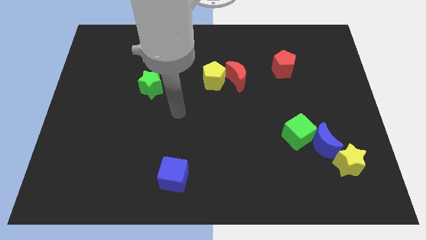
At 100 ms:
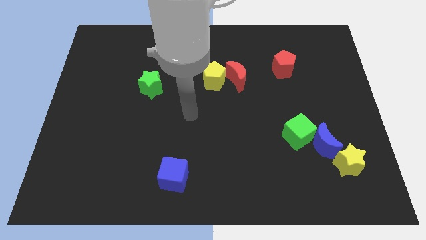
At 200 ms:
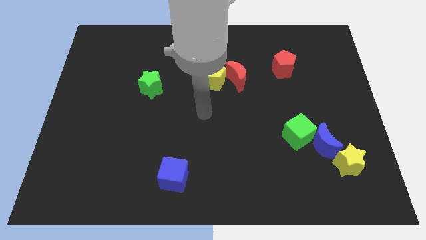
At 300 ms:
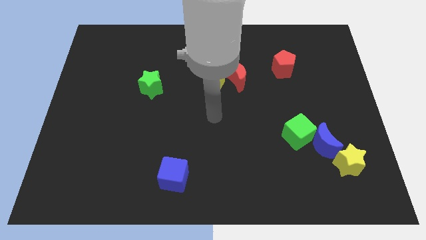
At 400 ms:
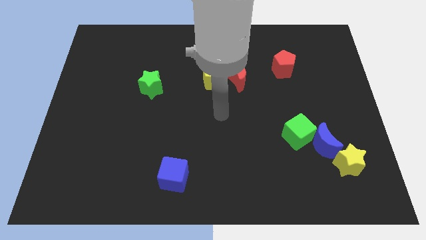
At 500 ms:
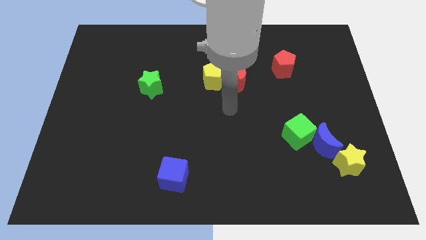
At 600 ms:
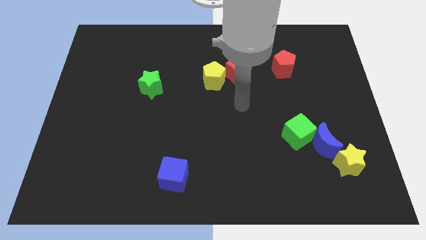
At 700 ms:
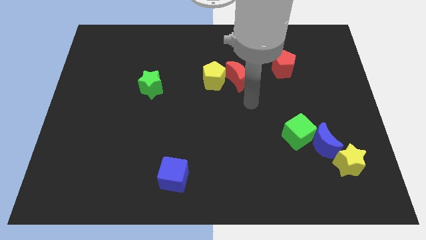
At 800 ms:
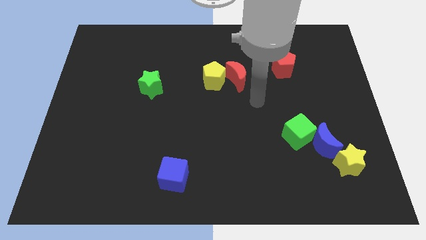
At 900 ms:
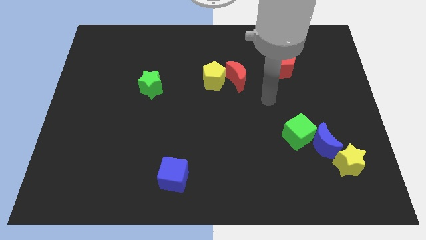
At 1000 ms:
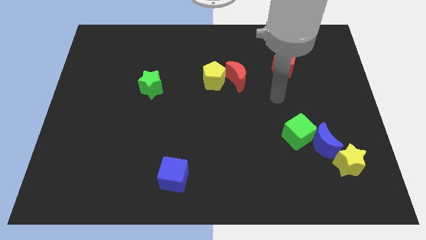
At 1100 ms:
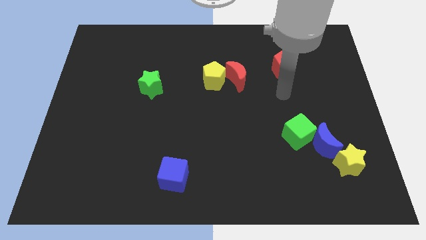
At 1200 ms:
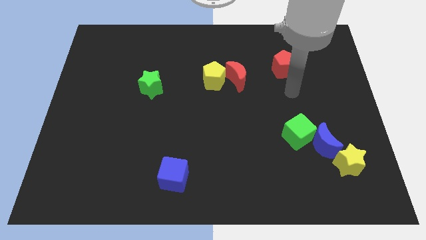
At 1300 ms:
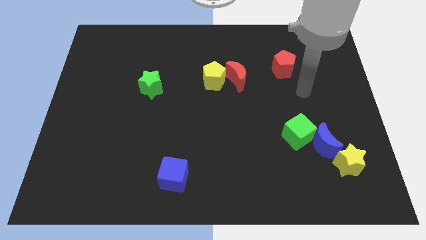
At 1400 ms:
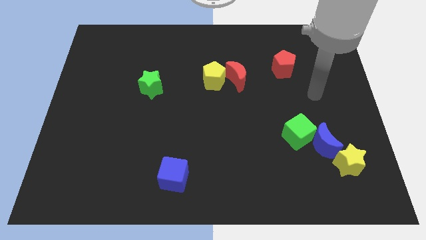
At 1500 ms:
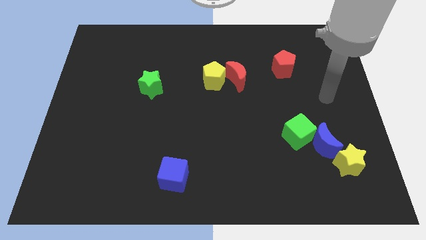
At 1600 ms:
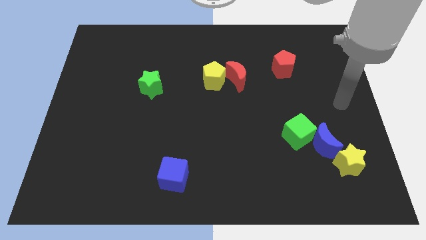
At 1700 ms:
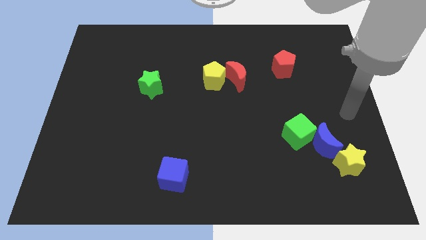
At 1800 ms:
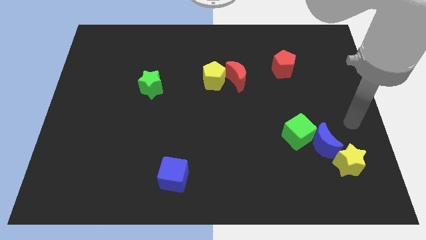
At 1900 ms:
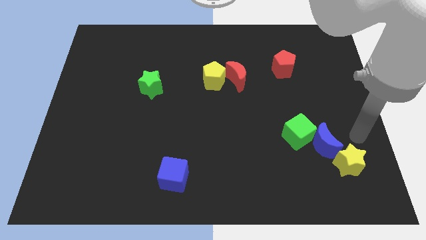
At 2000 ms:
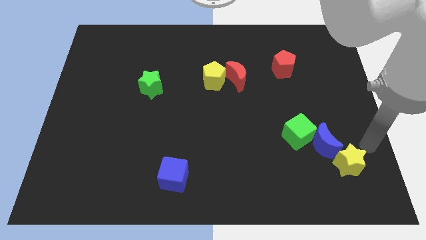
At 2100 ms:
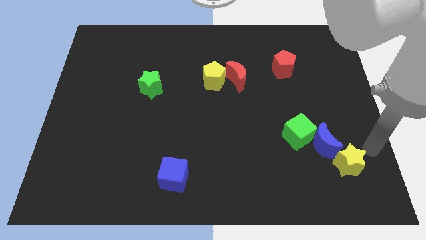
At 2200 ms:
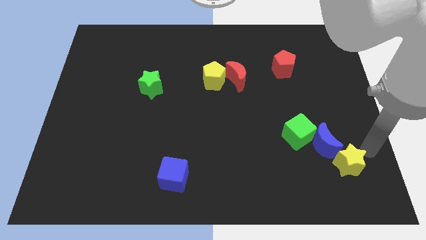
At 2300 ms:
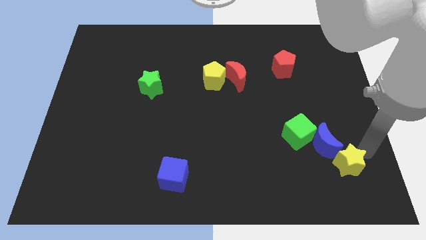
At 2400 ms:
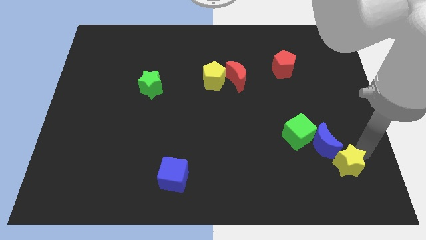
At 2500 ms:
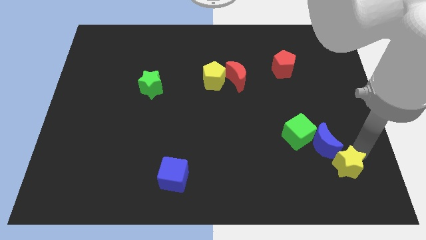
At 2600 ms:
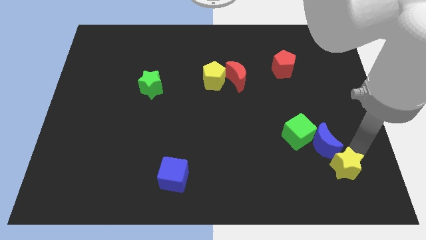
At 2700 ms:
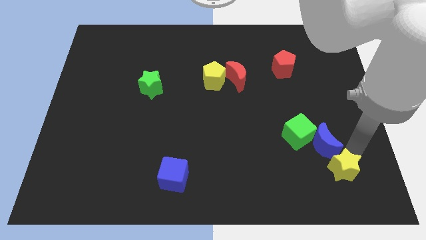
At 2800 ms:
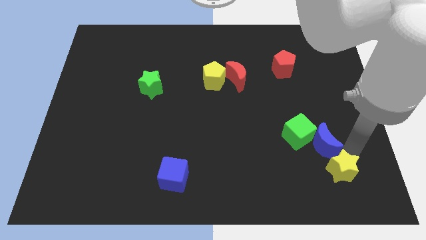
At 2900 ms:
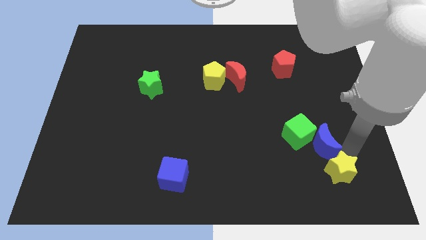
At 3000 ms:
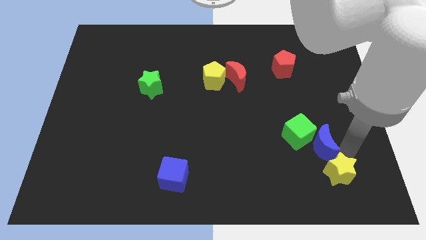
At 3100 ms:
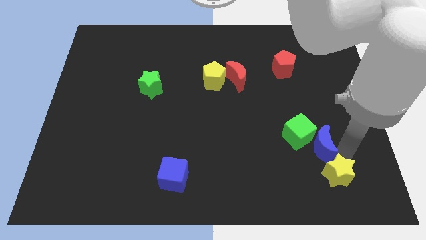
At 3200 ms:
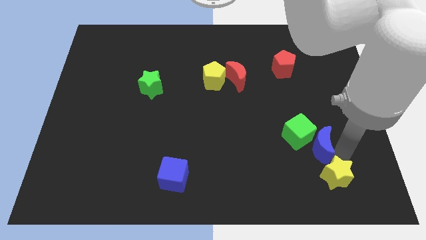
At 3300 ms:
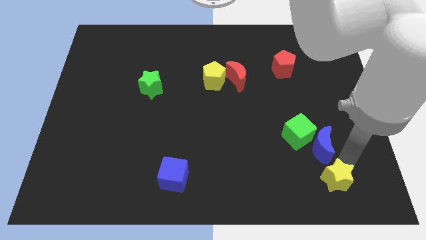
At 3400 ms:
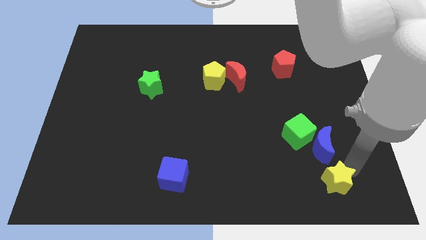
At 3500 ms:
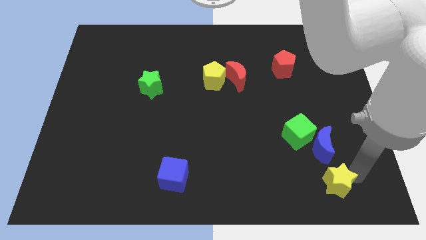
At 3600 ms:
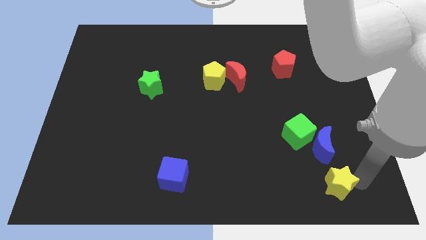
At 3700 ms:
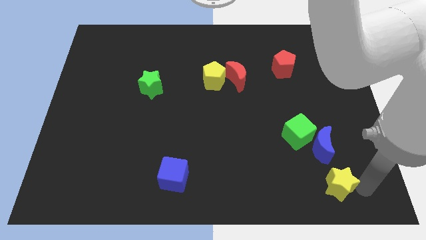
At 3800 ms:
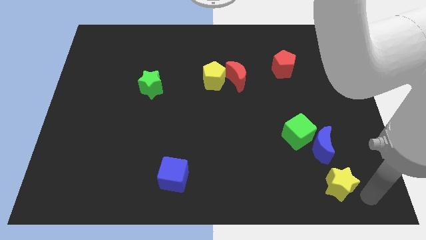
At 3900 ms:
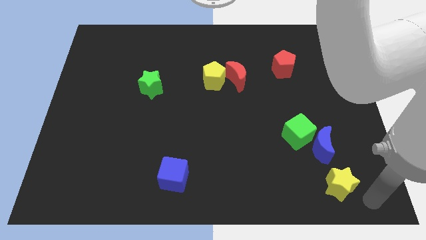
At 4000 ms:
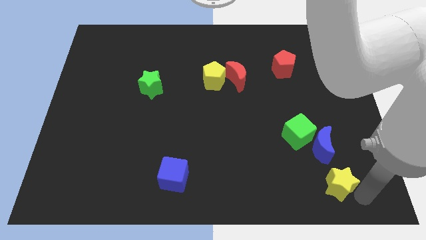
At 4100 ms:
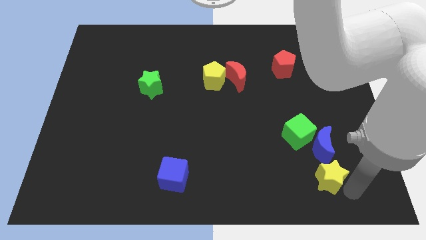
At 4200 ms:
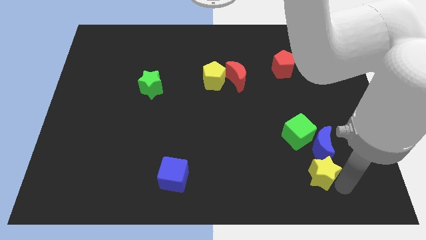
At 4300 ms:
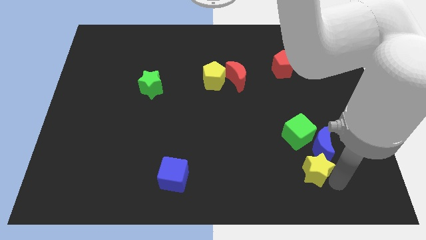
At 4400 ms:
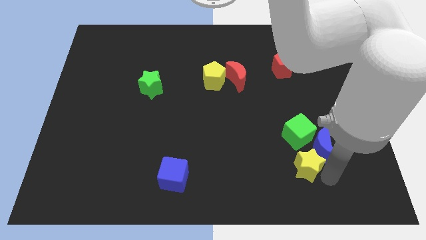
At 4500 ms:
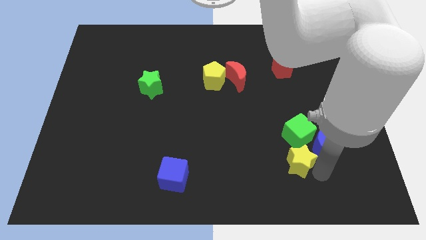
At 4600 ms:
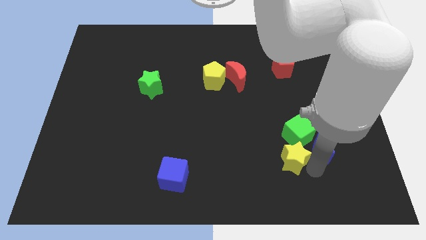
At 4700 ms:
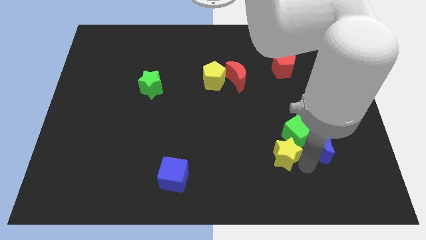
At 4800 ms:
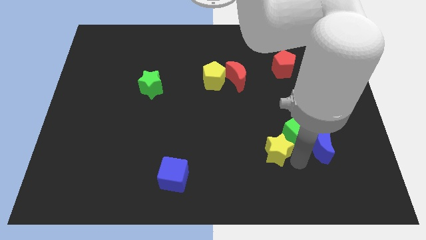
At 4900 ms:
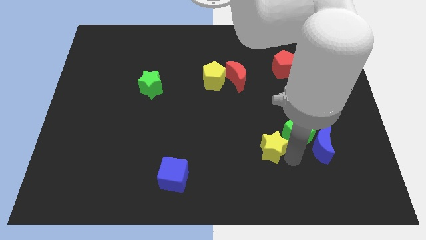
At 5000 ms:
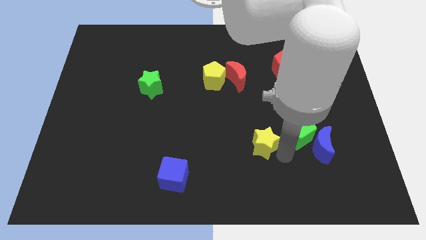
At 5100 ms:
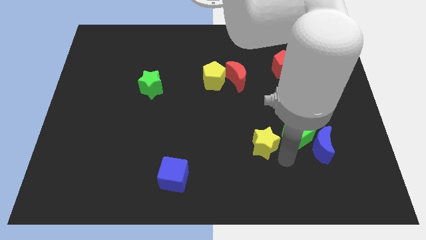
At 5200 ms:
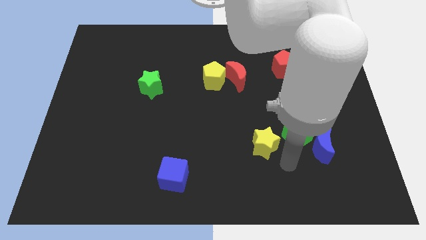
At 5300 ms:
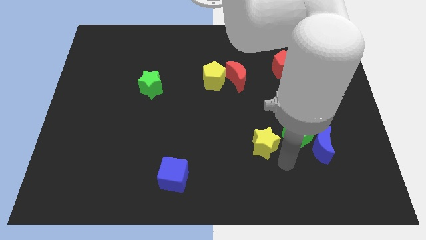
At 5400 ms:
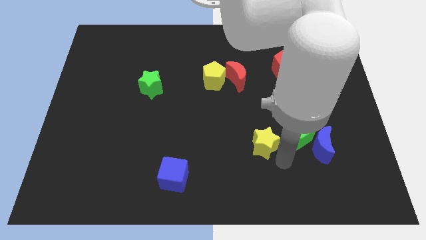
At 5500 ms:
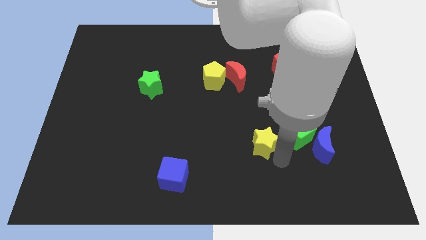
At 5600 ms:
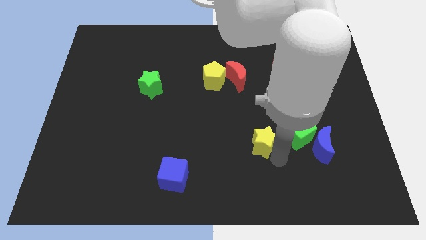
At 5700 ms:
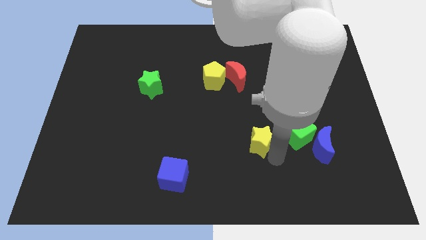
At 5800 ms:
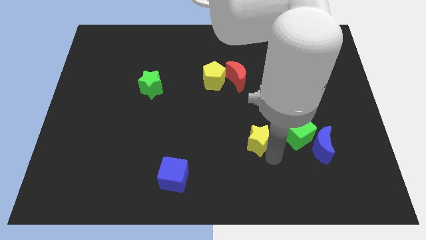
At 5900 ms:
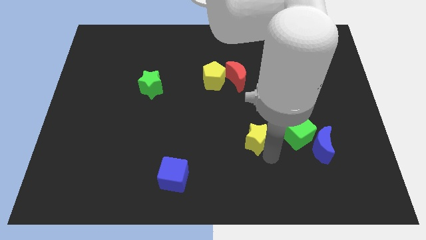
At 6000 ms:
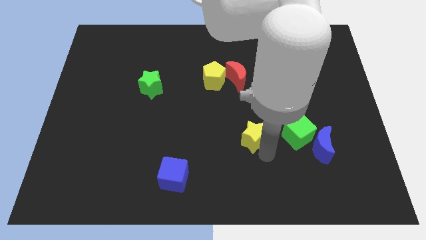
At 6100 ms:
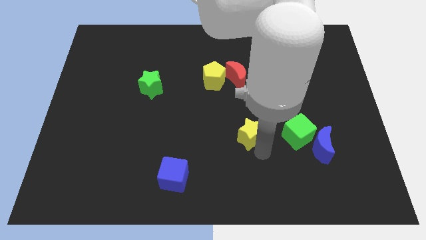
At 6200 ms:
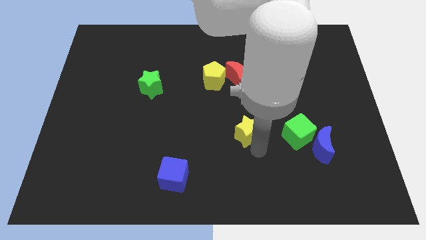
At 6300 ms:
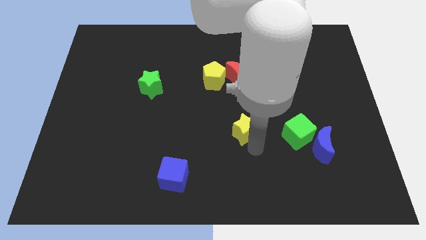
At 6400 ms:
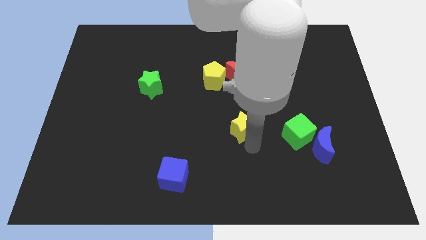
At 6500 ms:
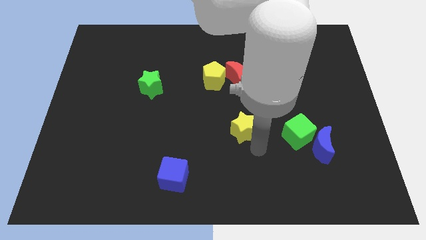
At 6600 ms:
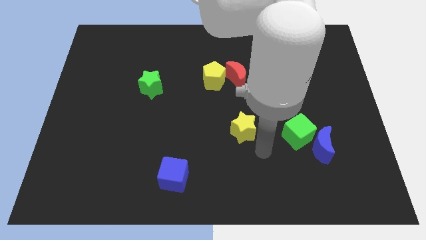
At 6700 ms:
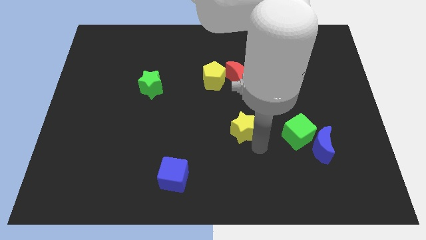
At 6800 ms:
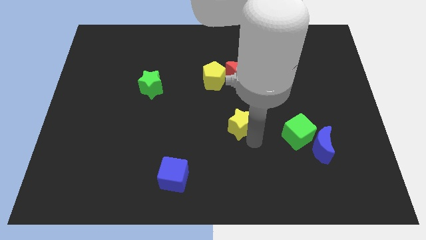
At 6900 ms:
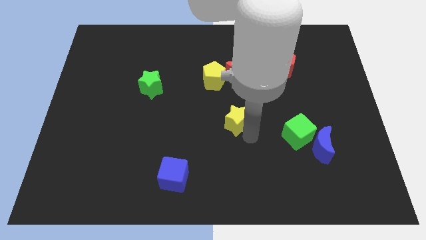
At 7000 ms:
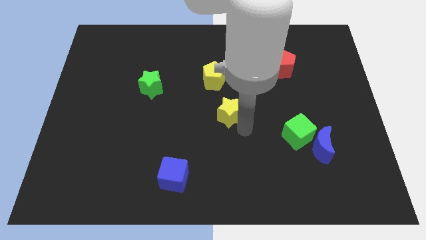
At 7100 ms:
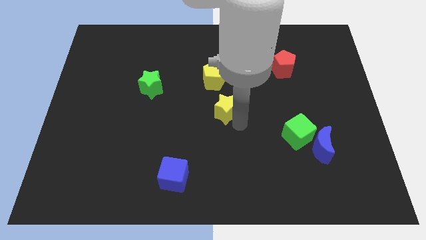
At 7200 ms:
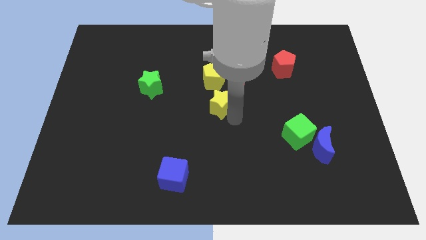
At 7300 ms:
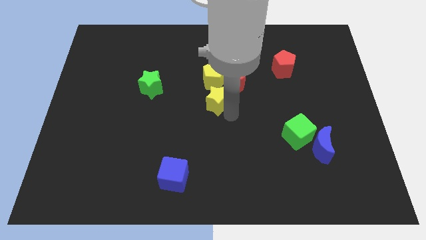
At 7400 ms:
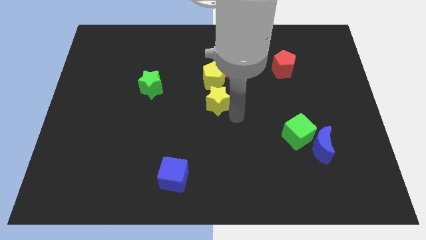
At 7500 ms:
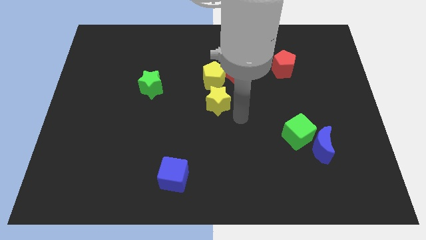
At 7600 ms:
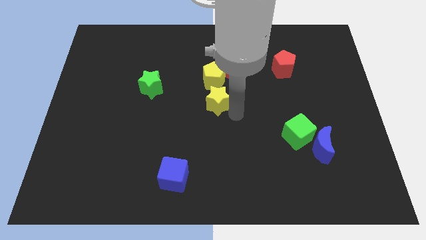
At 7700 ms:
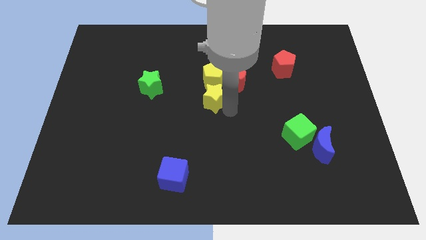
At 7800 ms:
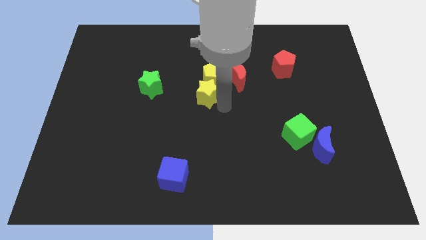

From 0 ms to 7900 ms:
push the yellow star just right of the green star
